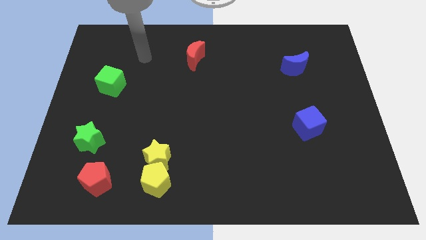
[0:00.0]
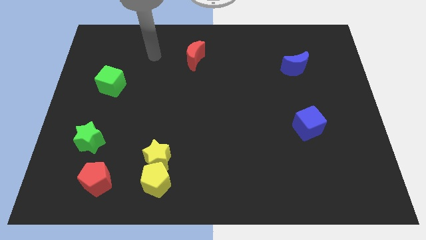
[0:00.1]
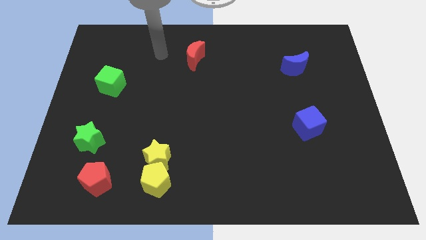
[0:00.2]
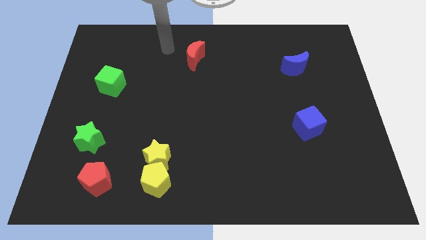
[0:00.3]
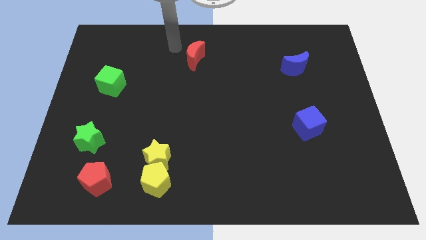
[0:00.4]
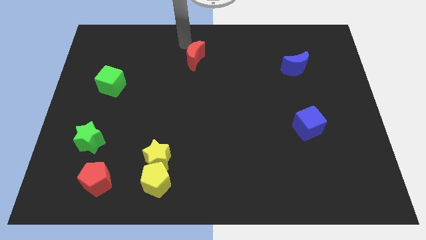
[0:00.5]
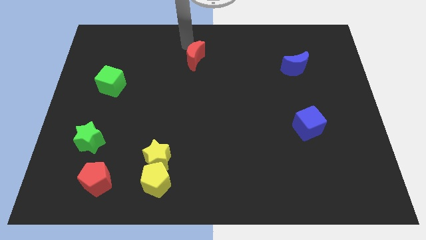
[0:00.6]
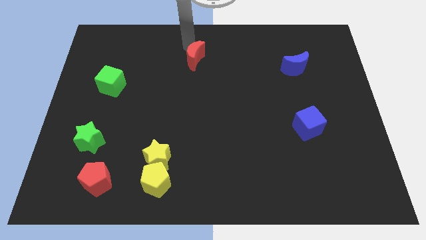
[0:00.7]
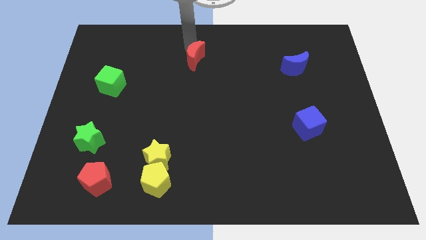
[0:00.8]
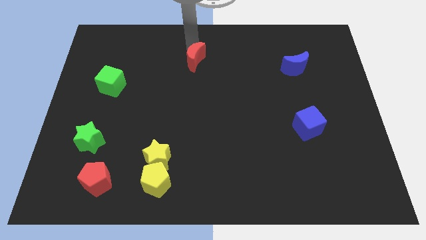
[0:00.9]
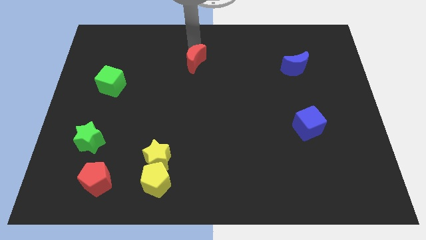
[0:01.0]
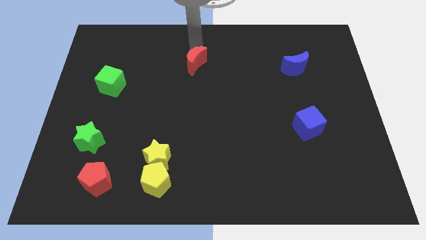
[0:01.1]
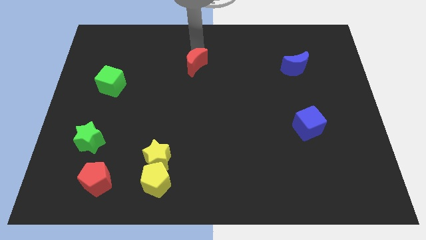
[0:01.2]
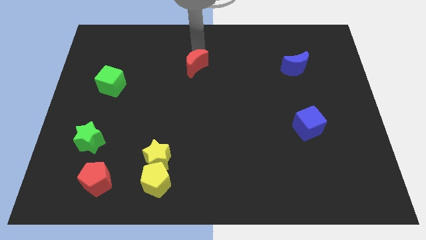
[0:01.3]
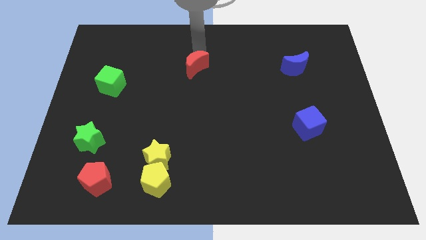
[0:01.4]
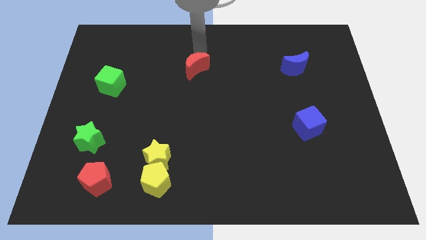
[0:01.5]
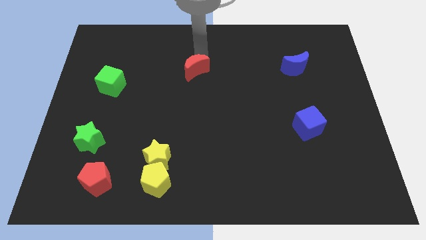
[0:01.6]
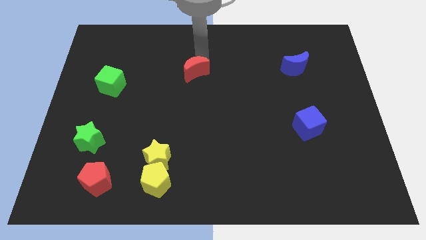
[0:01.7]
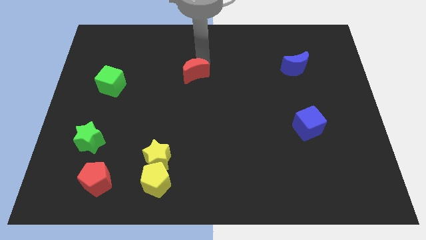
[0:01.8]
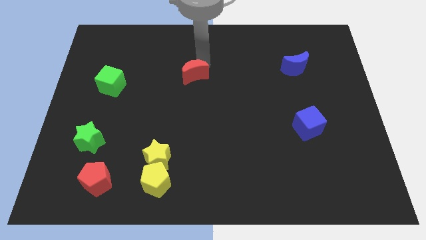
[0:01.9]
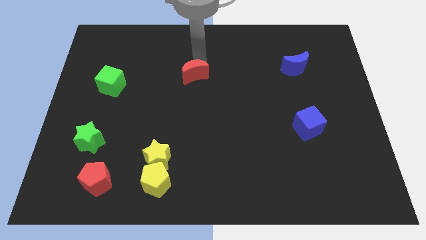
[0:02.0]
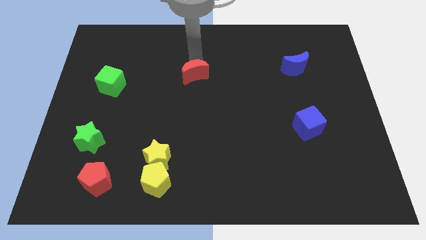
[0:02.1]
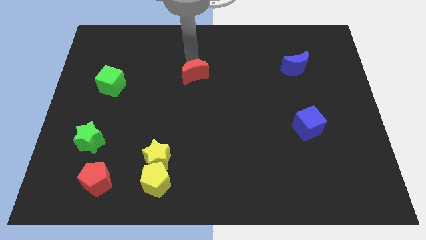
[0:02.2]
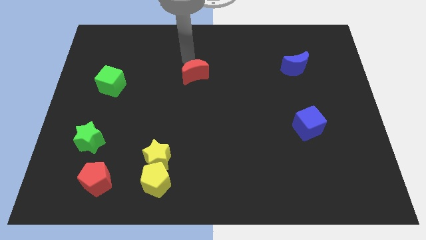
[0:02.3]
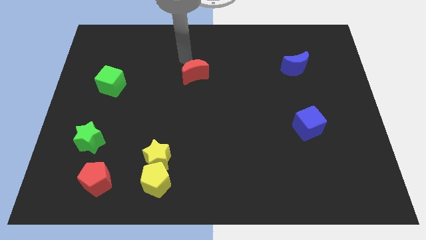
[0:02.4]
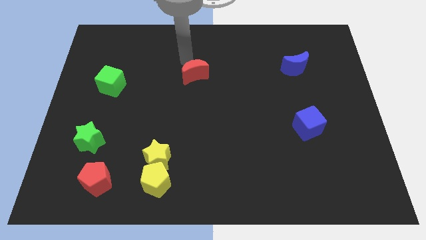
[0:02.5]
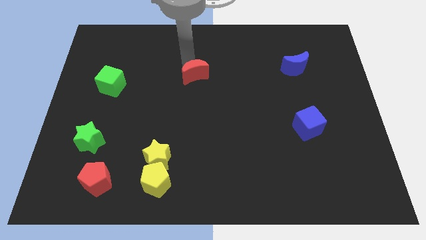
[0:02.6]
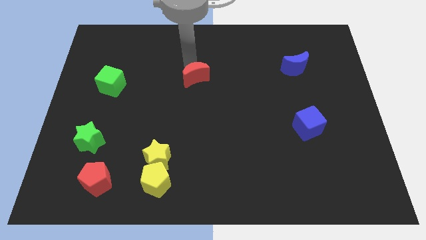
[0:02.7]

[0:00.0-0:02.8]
slightly push the red moon downwards

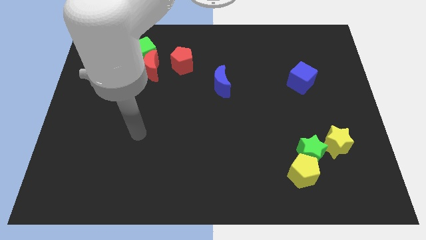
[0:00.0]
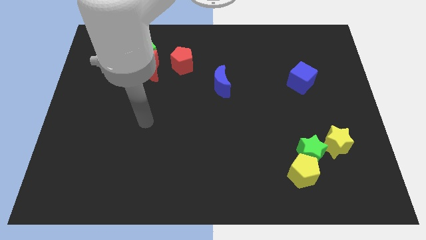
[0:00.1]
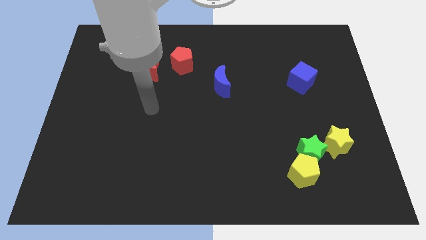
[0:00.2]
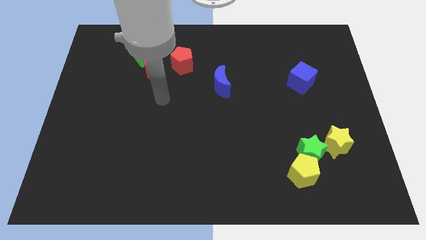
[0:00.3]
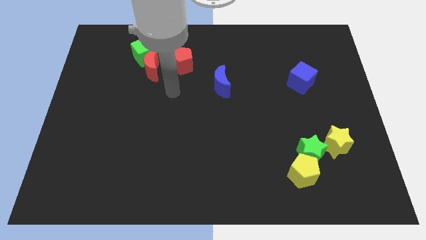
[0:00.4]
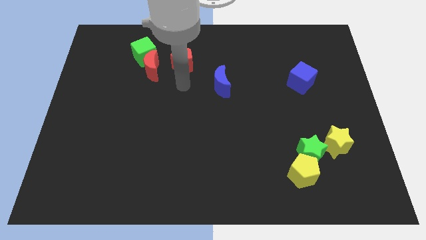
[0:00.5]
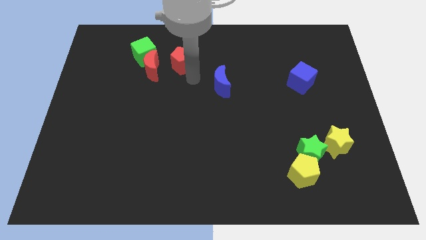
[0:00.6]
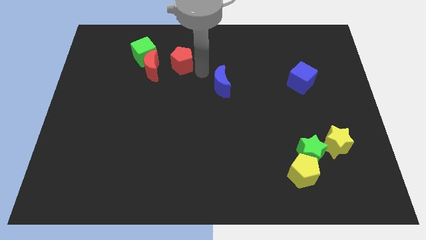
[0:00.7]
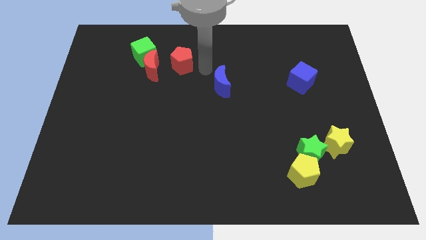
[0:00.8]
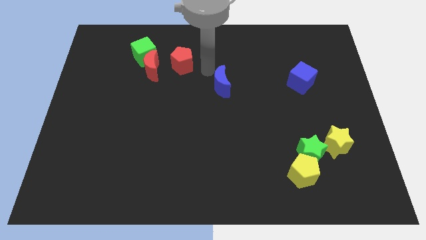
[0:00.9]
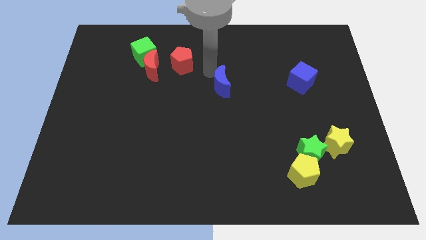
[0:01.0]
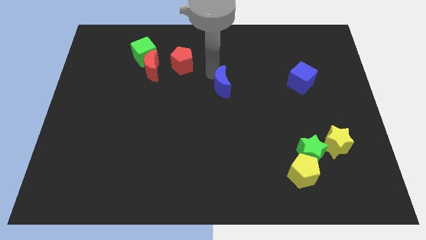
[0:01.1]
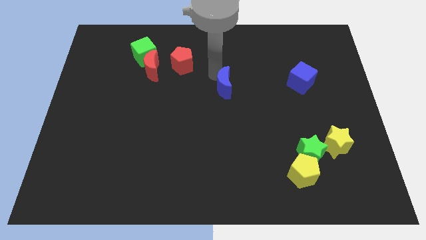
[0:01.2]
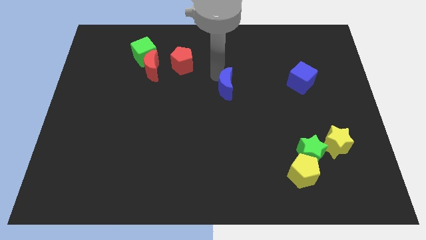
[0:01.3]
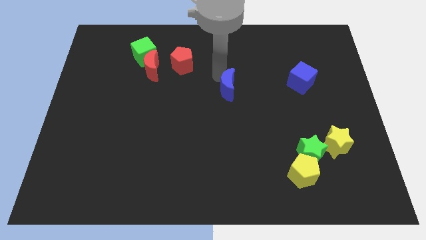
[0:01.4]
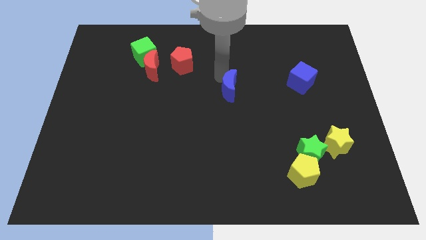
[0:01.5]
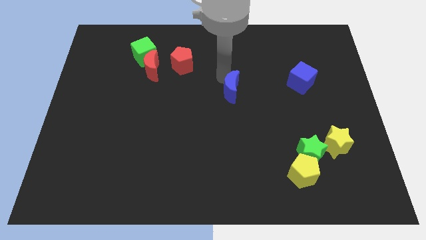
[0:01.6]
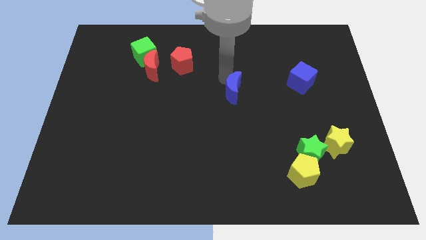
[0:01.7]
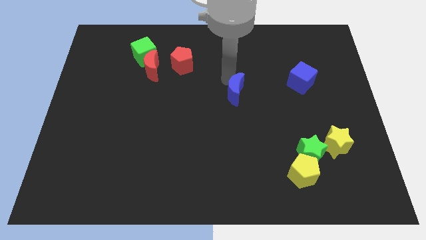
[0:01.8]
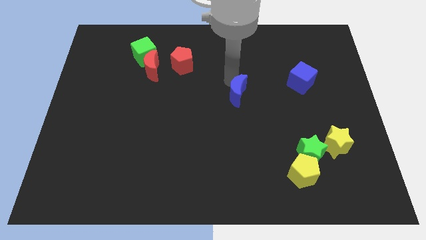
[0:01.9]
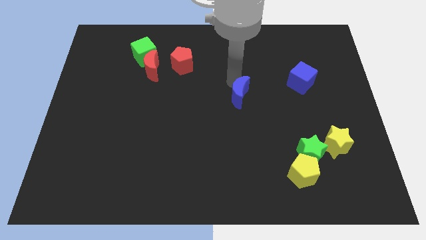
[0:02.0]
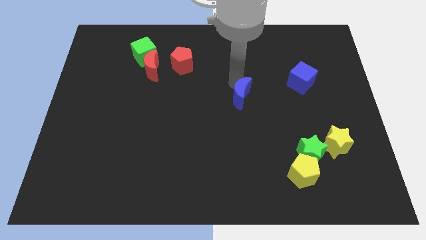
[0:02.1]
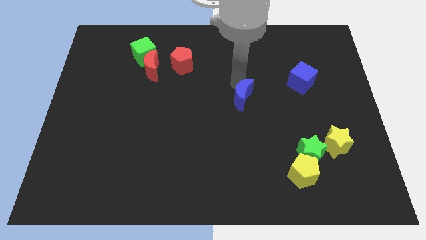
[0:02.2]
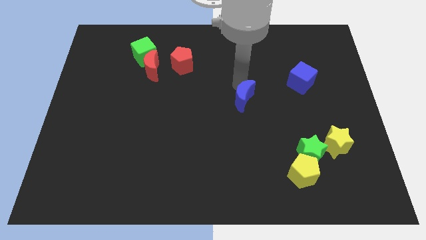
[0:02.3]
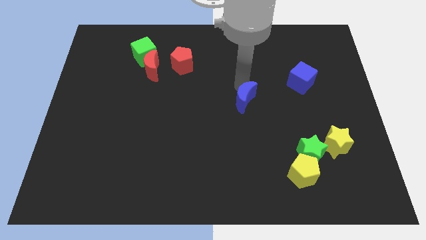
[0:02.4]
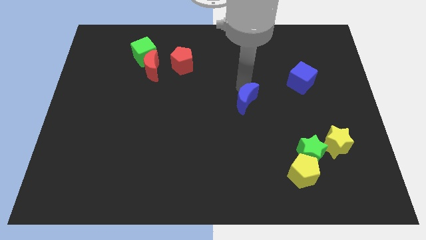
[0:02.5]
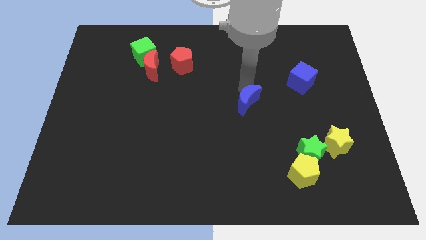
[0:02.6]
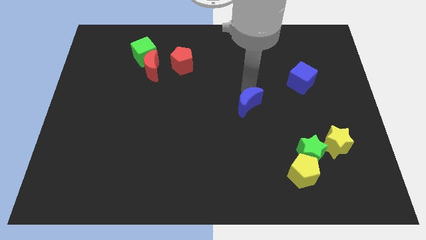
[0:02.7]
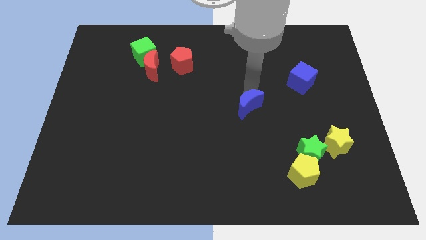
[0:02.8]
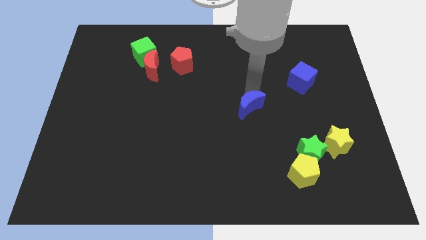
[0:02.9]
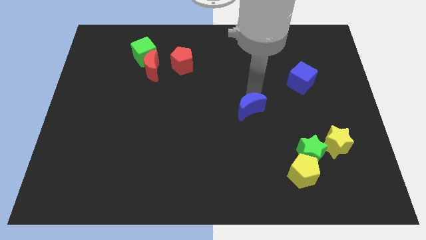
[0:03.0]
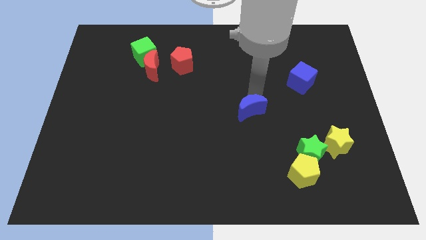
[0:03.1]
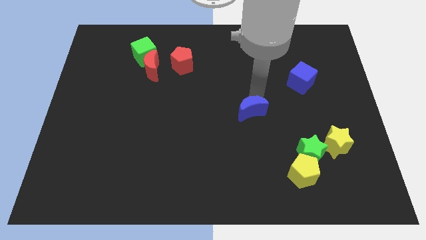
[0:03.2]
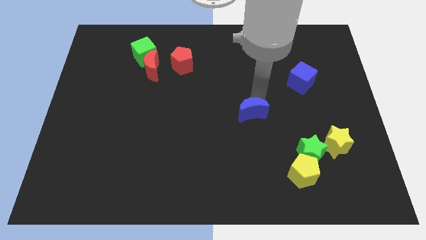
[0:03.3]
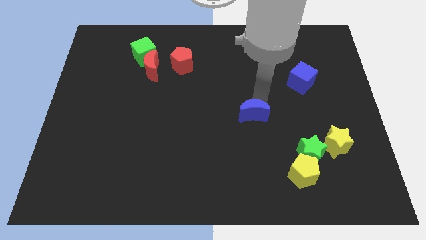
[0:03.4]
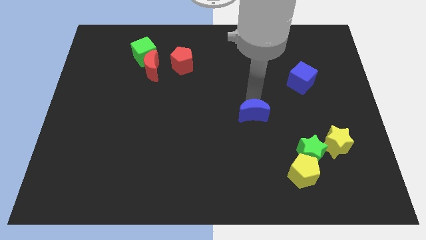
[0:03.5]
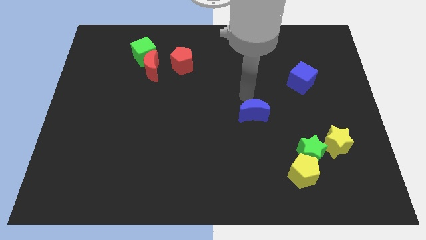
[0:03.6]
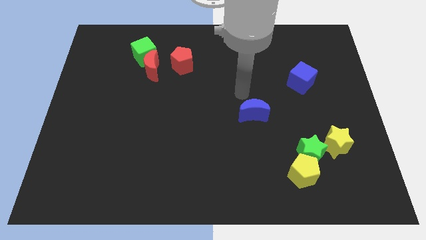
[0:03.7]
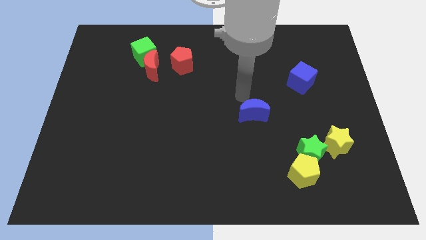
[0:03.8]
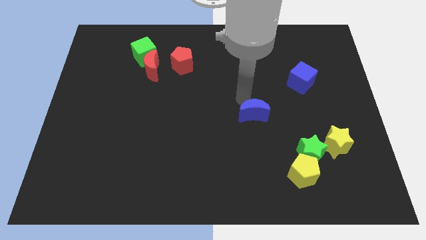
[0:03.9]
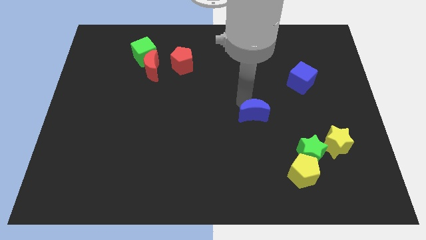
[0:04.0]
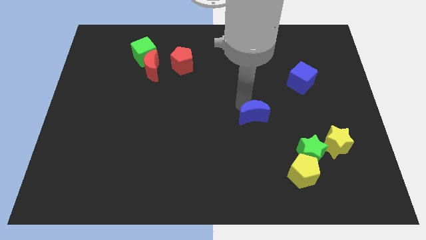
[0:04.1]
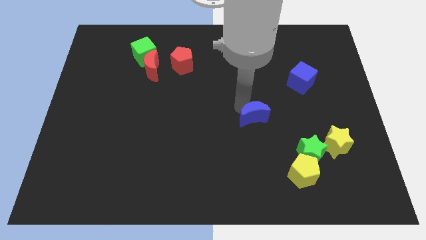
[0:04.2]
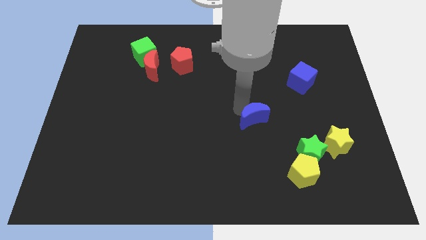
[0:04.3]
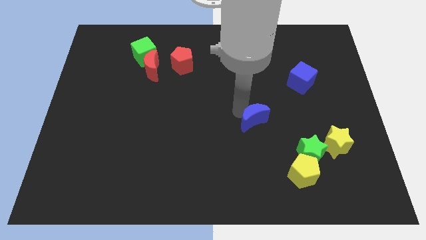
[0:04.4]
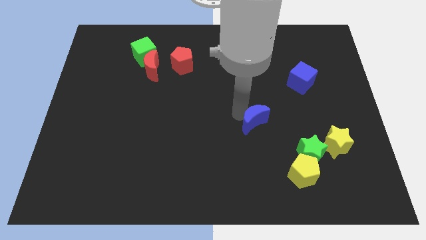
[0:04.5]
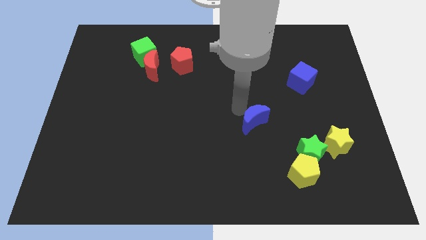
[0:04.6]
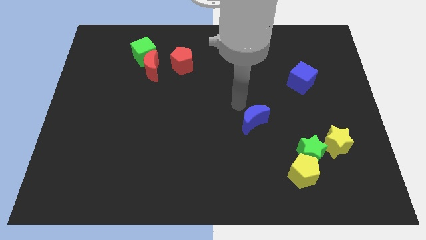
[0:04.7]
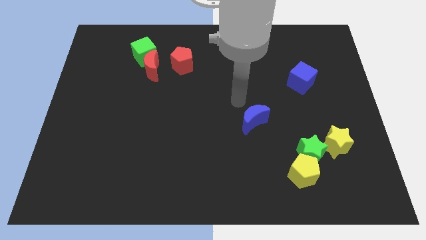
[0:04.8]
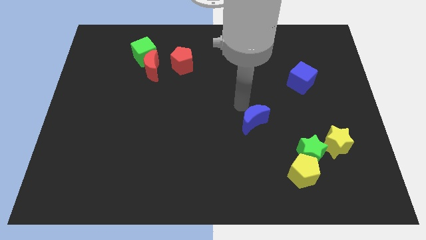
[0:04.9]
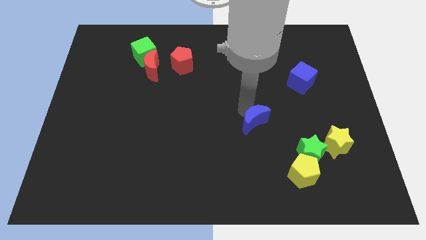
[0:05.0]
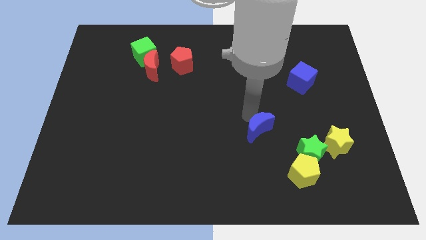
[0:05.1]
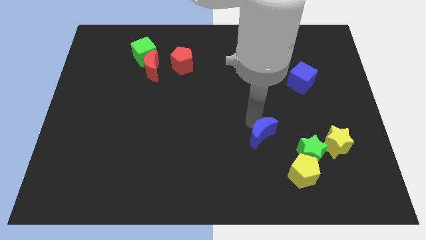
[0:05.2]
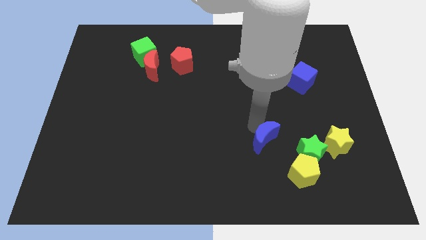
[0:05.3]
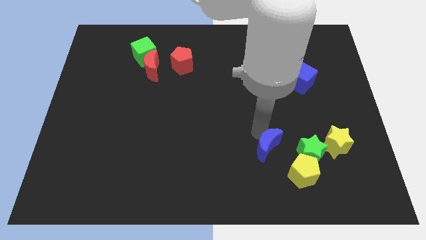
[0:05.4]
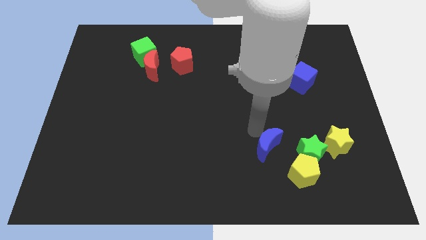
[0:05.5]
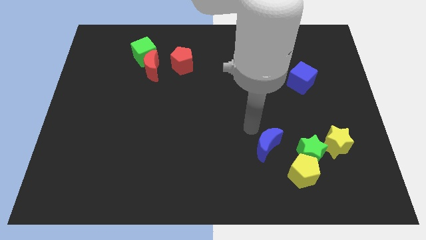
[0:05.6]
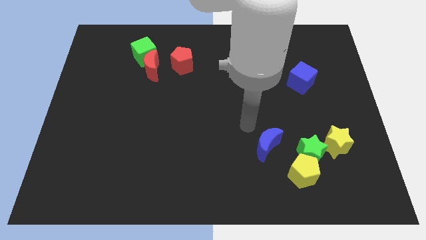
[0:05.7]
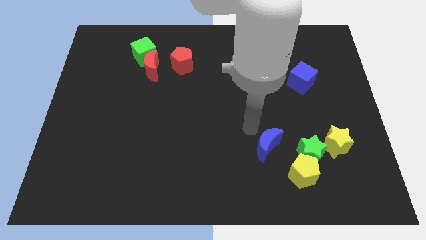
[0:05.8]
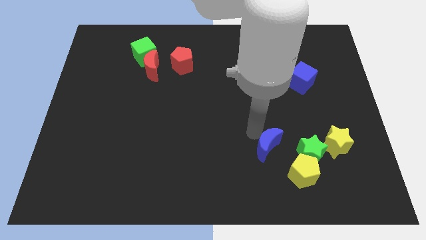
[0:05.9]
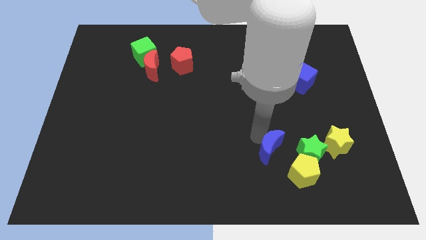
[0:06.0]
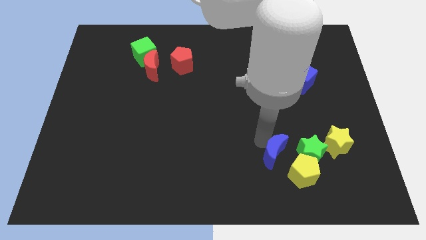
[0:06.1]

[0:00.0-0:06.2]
slide the blue moon diagonally downwards and to the right
